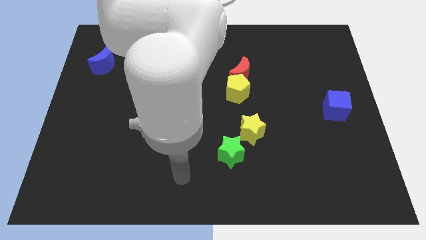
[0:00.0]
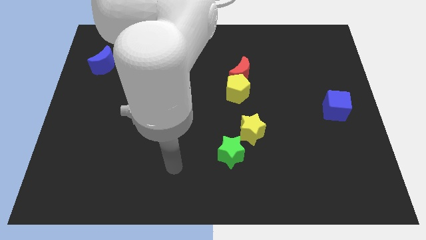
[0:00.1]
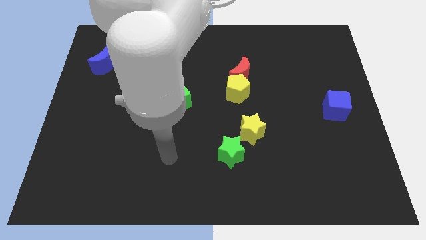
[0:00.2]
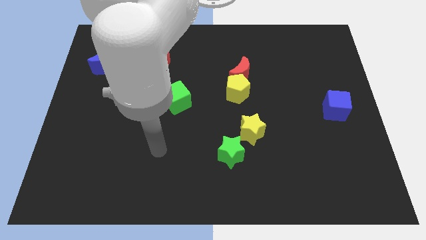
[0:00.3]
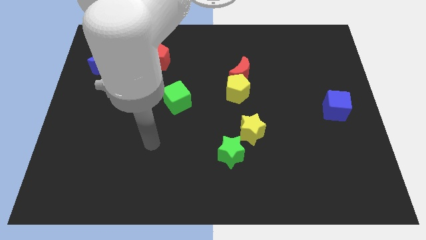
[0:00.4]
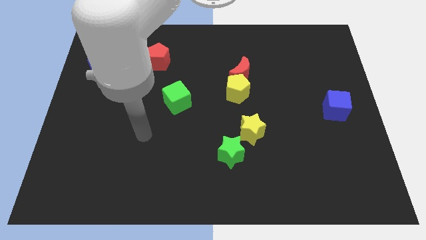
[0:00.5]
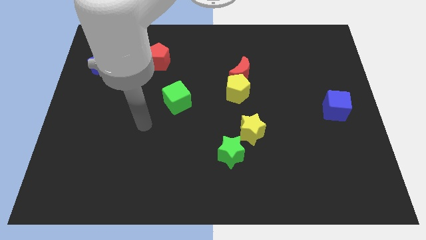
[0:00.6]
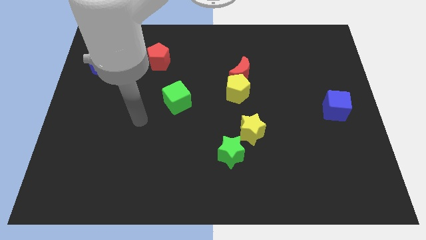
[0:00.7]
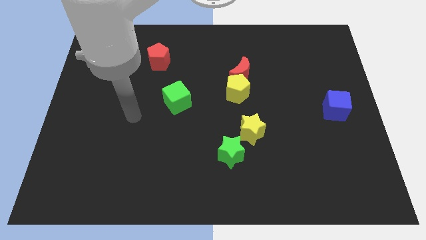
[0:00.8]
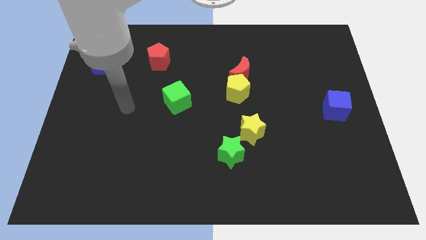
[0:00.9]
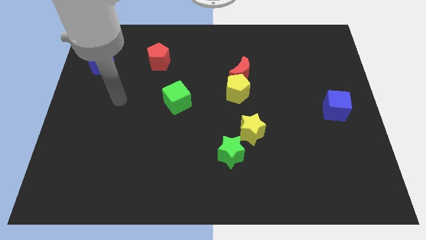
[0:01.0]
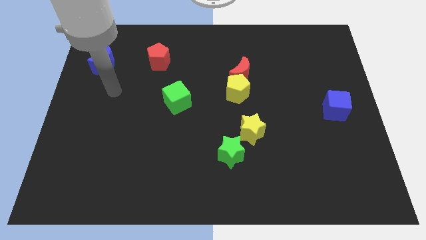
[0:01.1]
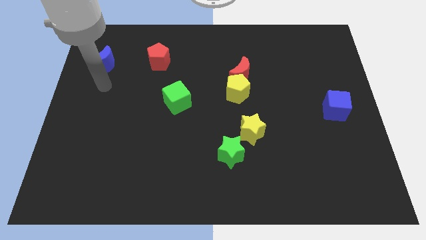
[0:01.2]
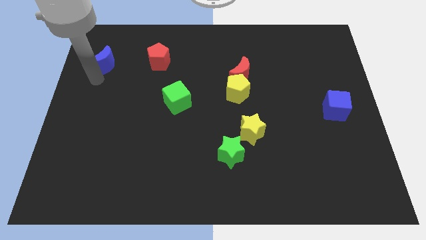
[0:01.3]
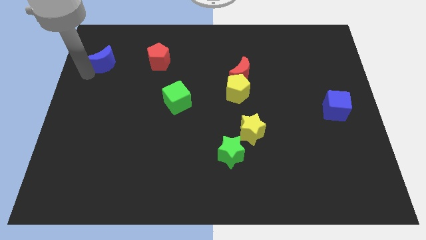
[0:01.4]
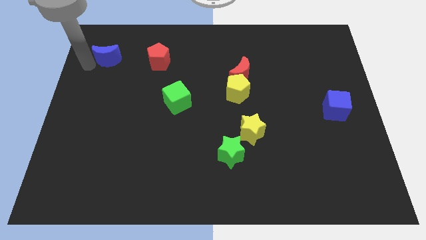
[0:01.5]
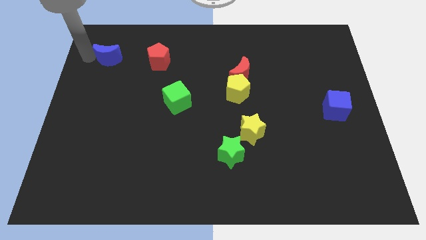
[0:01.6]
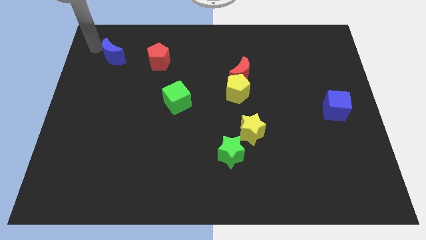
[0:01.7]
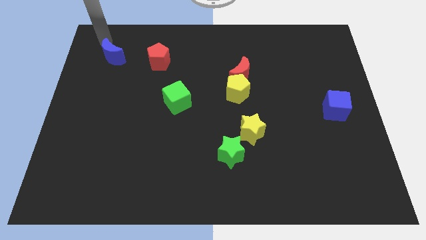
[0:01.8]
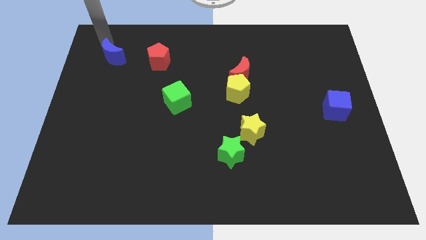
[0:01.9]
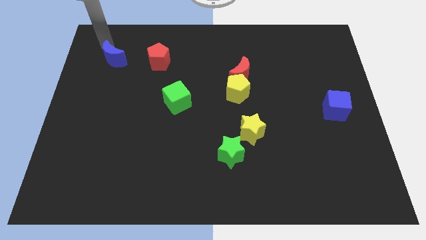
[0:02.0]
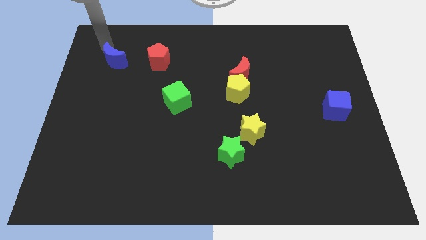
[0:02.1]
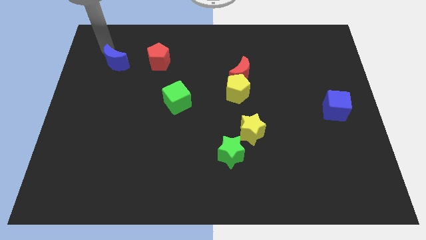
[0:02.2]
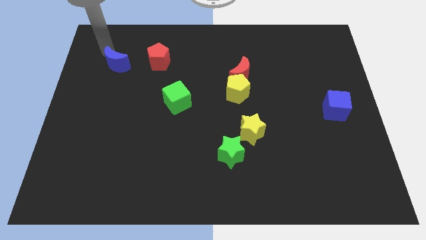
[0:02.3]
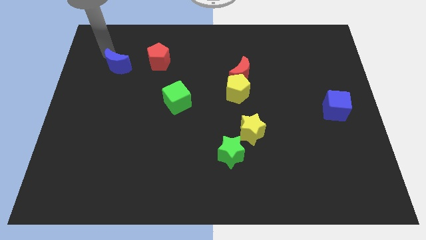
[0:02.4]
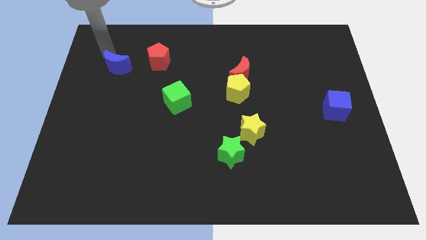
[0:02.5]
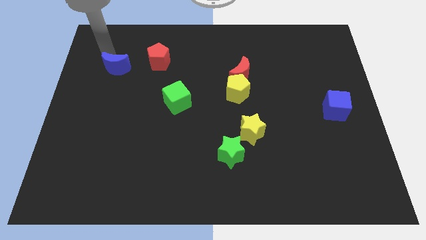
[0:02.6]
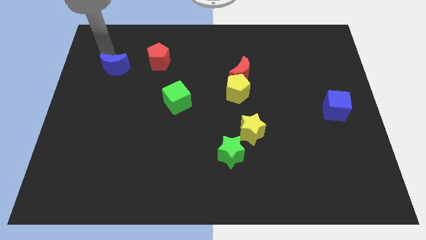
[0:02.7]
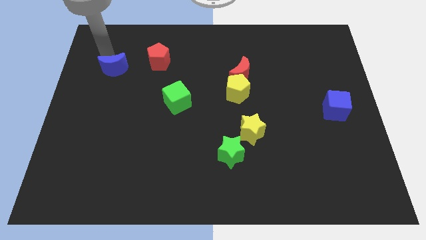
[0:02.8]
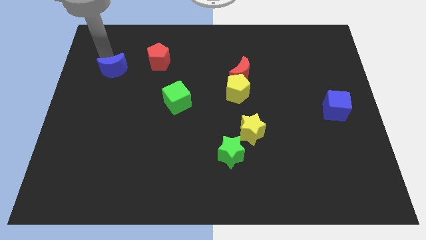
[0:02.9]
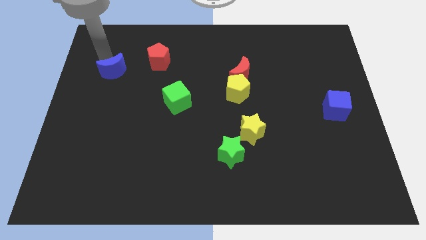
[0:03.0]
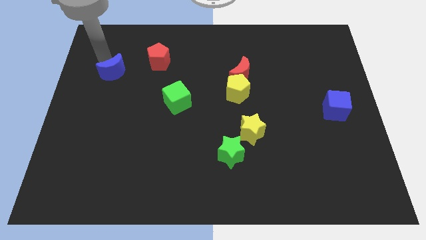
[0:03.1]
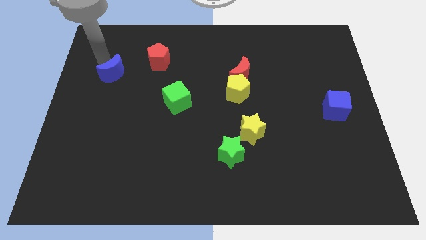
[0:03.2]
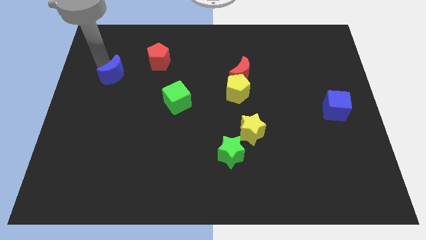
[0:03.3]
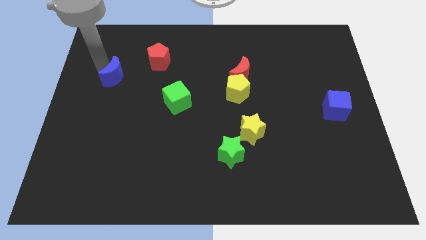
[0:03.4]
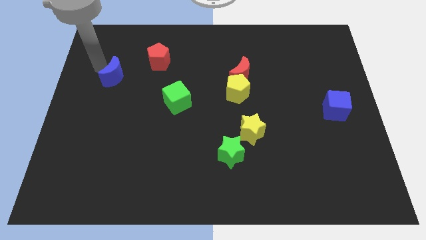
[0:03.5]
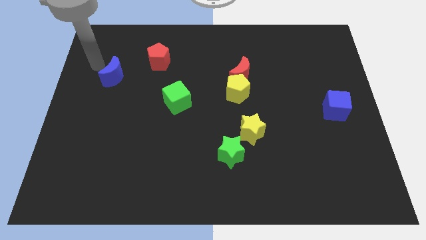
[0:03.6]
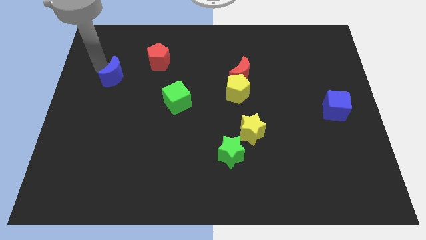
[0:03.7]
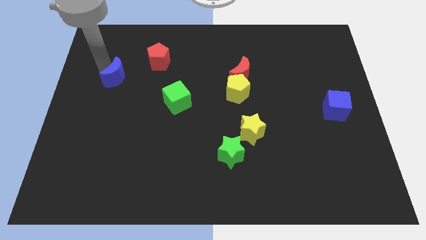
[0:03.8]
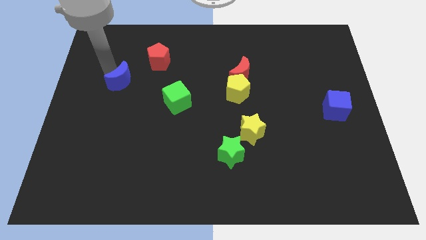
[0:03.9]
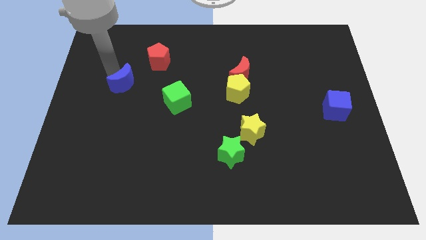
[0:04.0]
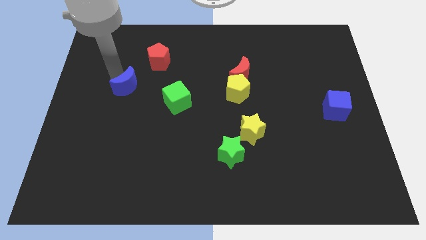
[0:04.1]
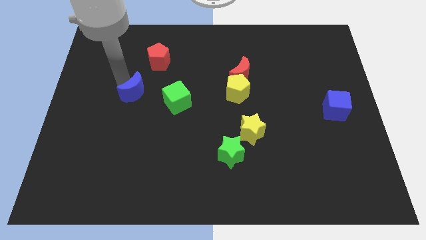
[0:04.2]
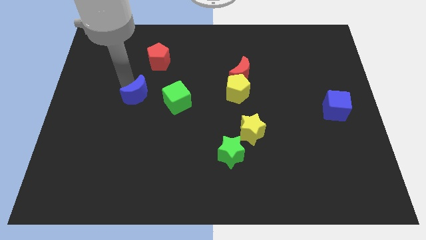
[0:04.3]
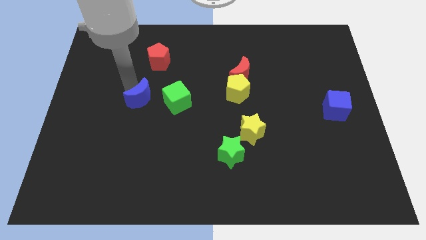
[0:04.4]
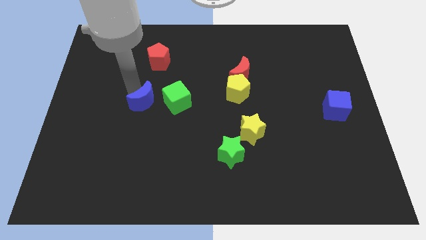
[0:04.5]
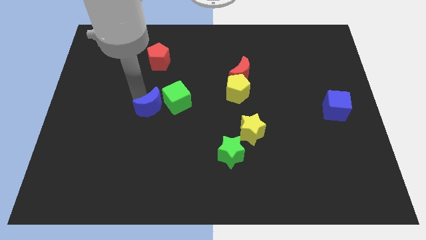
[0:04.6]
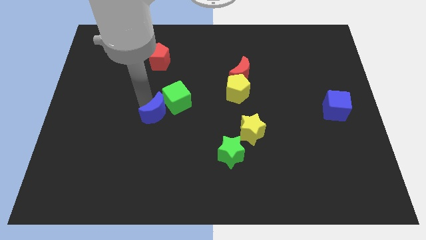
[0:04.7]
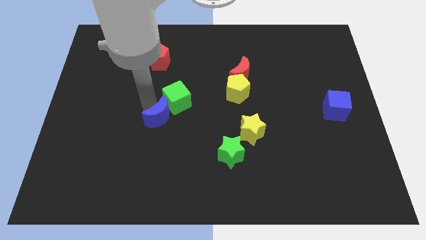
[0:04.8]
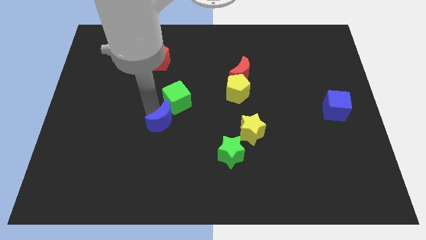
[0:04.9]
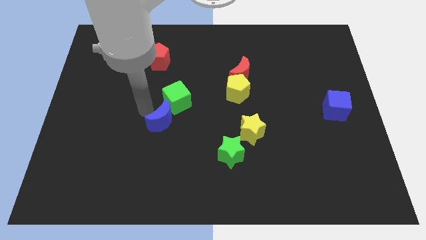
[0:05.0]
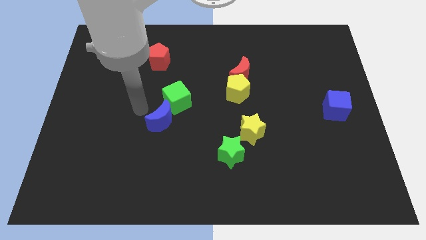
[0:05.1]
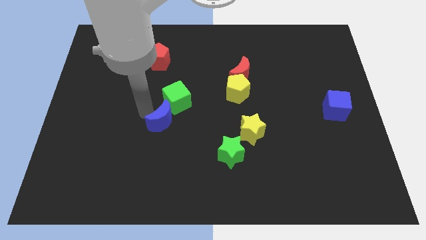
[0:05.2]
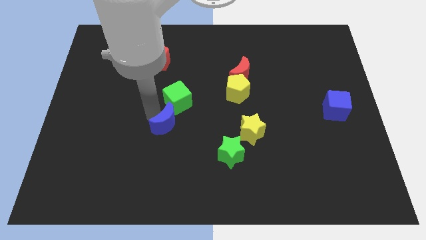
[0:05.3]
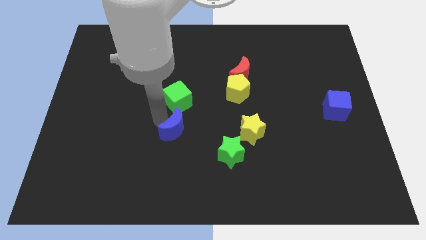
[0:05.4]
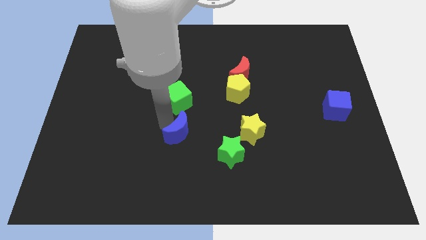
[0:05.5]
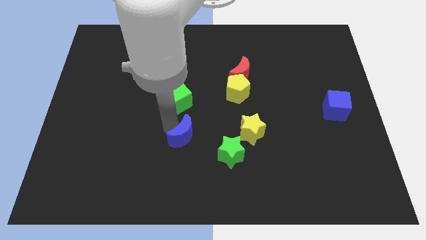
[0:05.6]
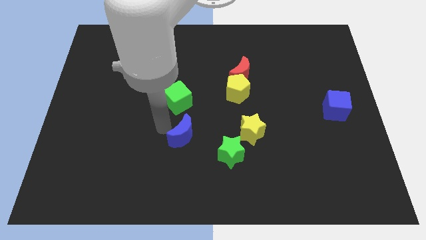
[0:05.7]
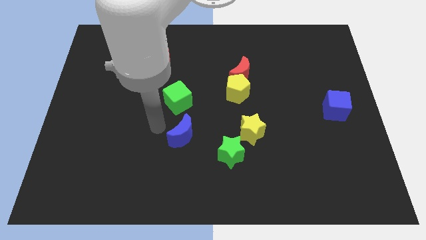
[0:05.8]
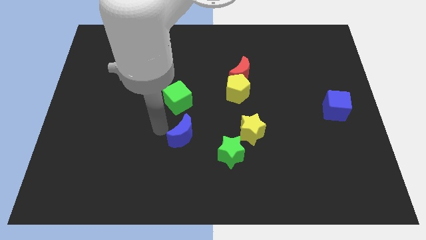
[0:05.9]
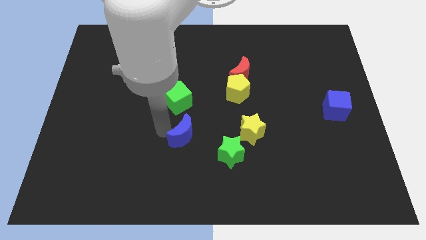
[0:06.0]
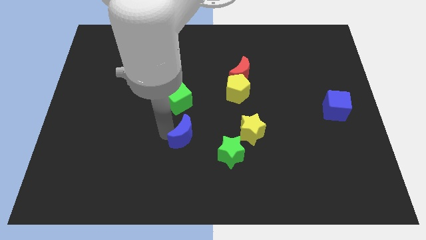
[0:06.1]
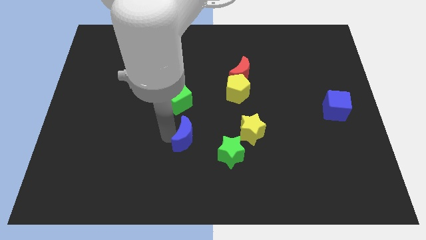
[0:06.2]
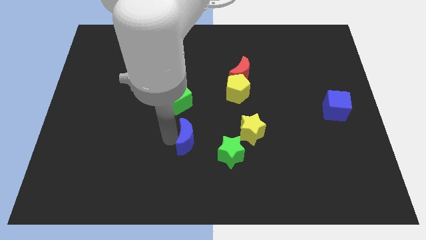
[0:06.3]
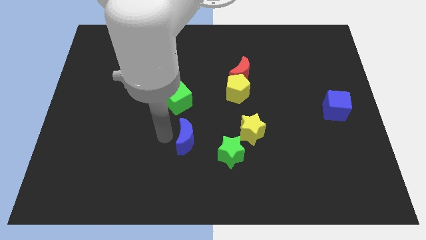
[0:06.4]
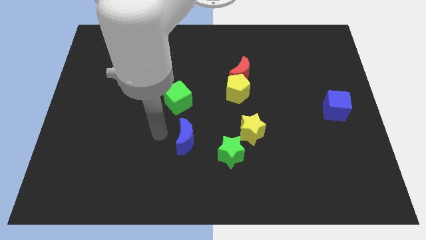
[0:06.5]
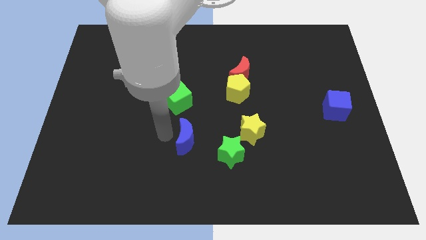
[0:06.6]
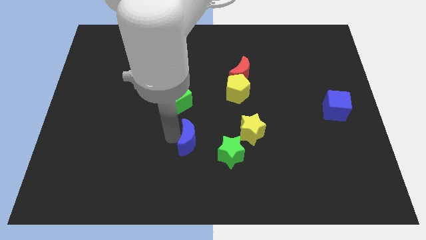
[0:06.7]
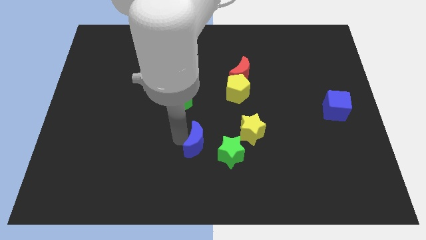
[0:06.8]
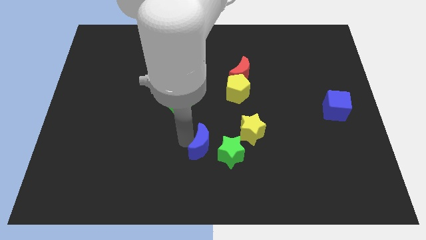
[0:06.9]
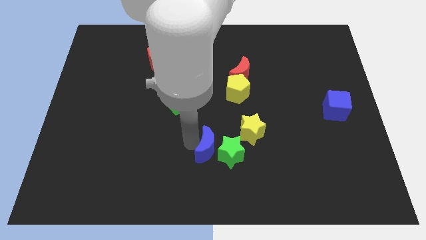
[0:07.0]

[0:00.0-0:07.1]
slide the blue moon towards the green star

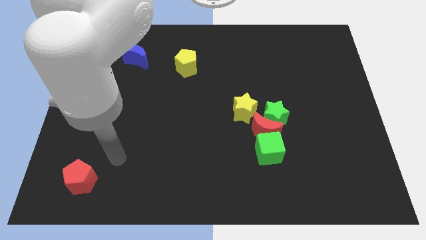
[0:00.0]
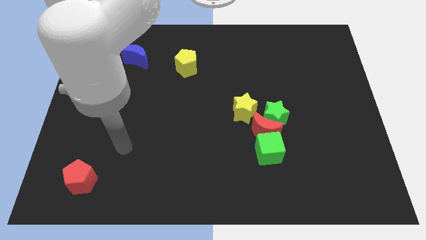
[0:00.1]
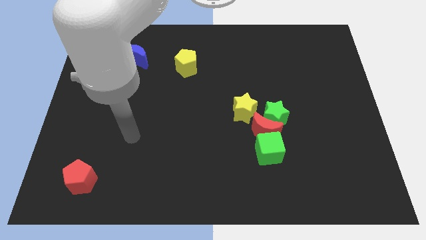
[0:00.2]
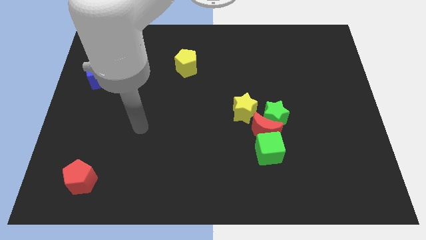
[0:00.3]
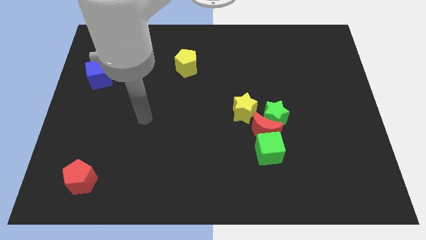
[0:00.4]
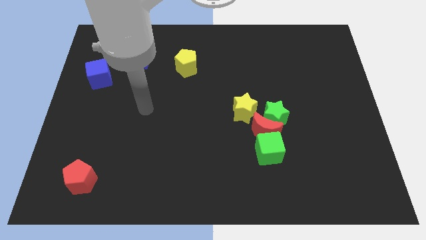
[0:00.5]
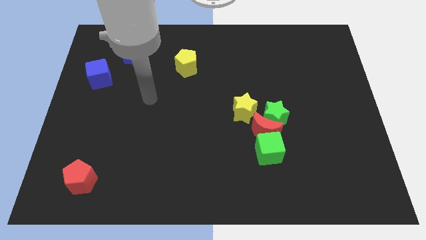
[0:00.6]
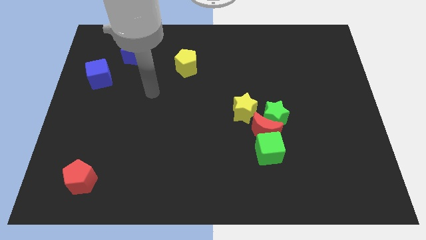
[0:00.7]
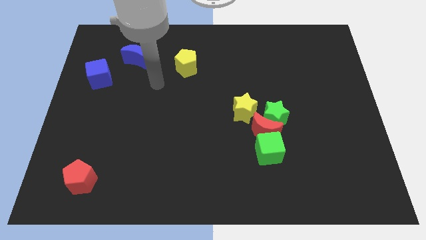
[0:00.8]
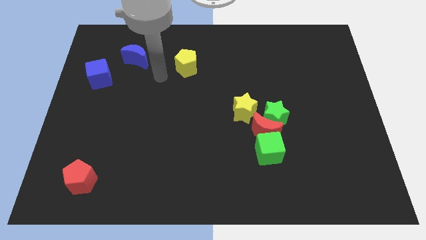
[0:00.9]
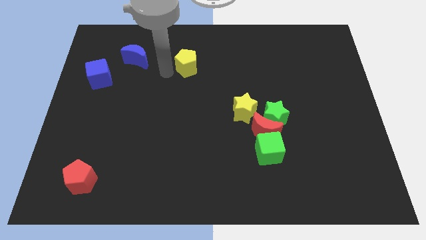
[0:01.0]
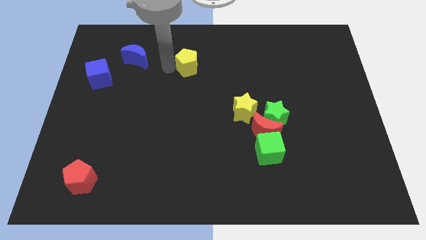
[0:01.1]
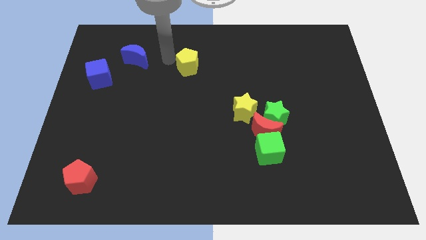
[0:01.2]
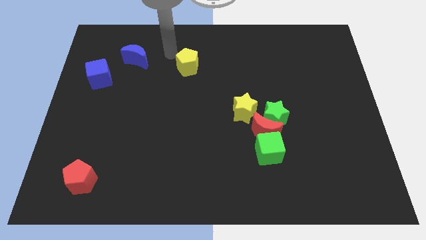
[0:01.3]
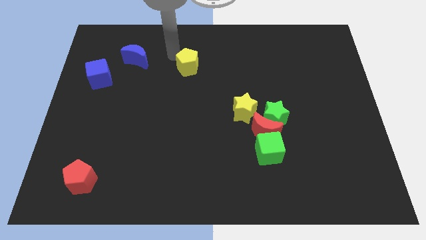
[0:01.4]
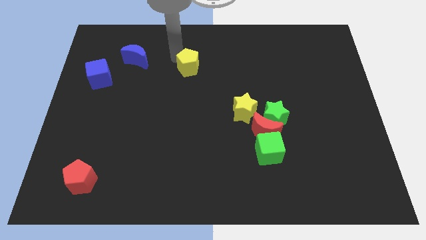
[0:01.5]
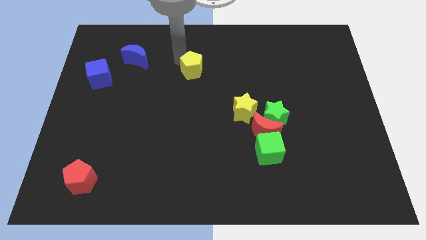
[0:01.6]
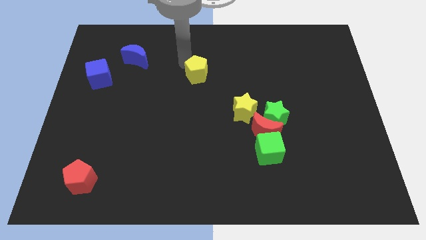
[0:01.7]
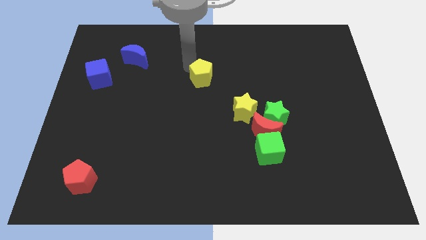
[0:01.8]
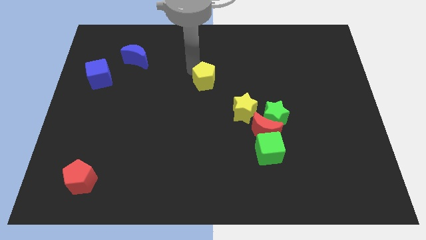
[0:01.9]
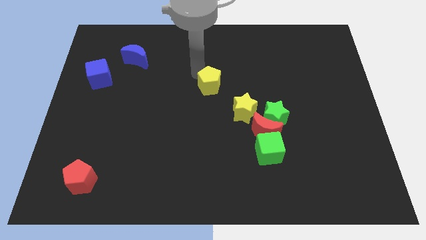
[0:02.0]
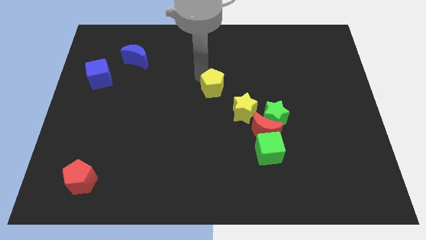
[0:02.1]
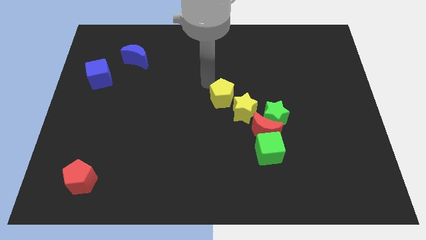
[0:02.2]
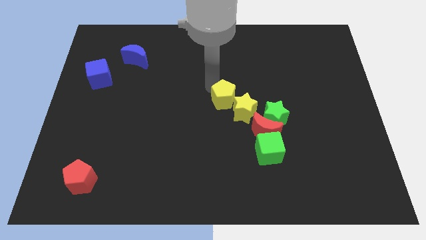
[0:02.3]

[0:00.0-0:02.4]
move the yellow pentagon to the yellow star
